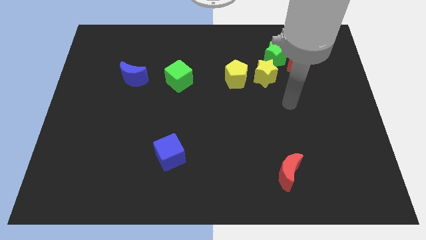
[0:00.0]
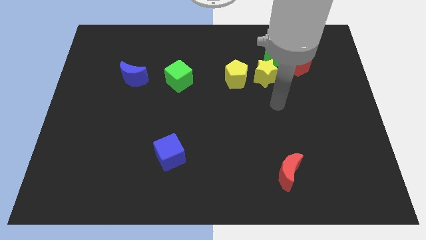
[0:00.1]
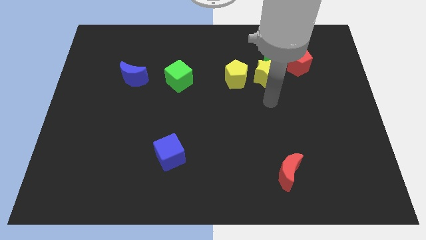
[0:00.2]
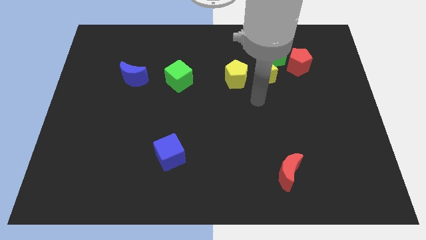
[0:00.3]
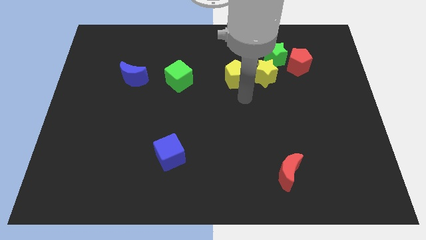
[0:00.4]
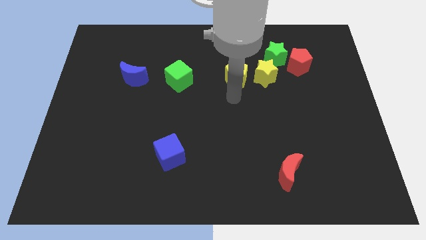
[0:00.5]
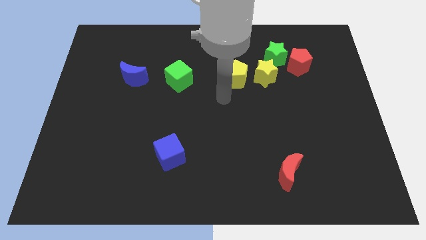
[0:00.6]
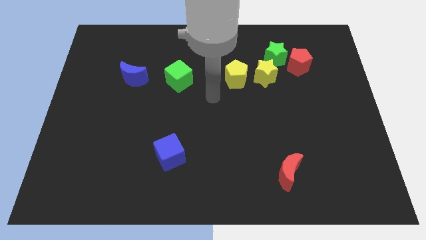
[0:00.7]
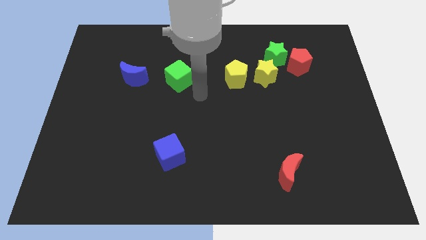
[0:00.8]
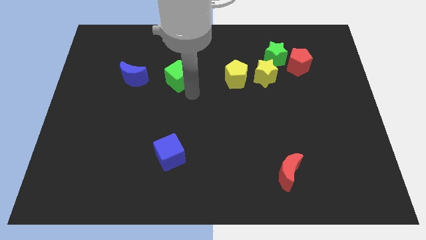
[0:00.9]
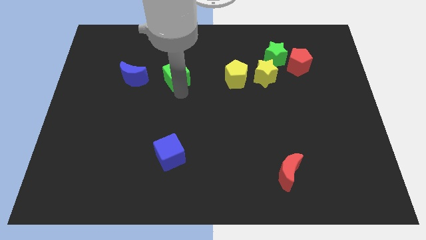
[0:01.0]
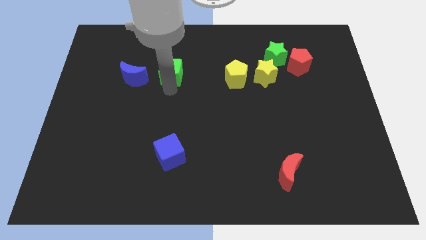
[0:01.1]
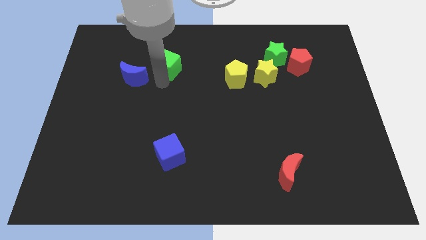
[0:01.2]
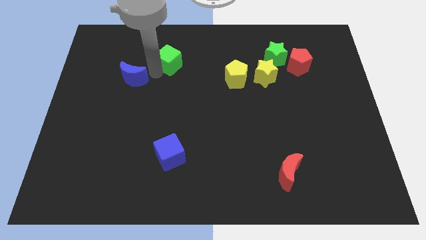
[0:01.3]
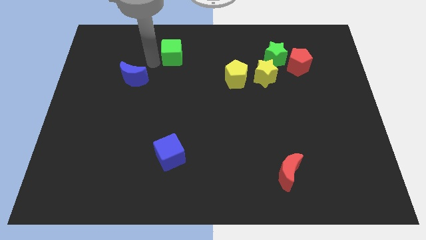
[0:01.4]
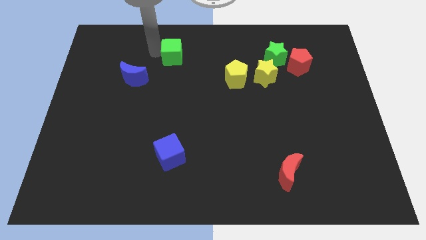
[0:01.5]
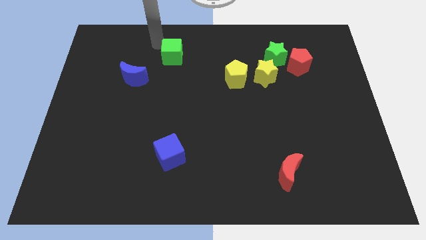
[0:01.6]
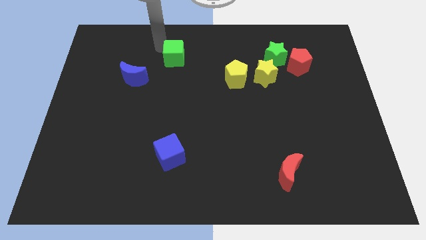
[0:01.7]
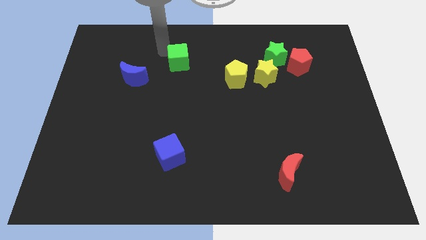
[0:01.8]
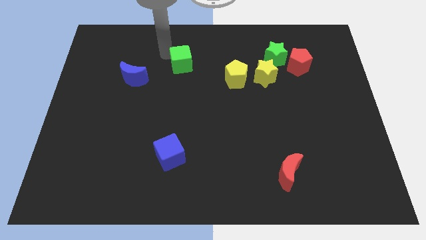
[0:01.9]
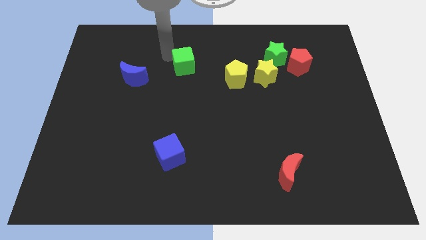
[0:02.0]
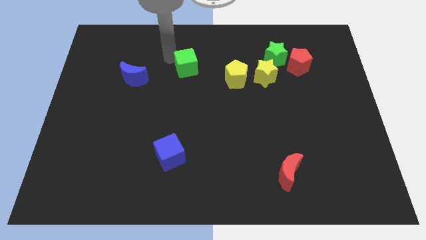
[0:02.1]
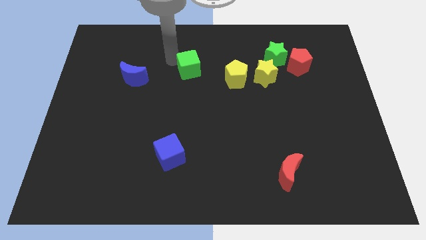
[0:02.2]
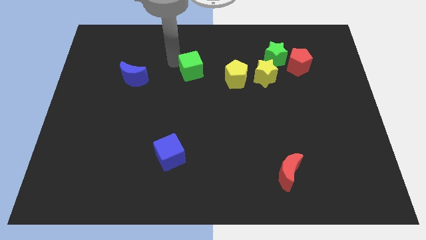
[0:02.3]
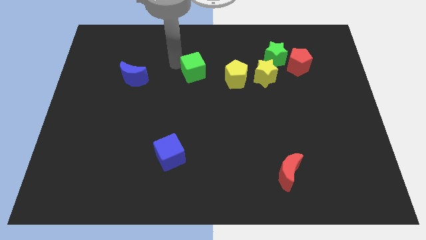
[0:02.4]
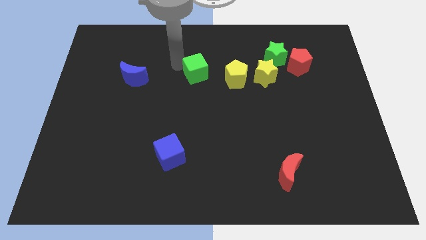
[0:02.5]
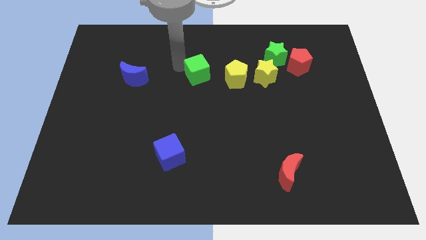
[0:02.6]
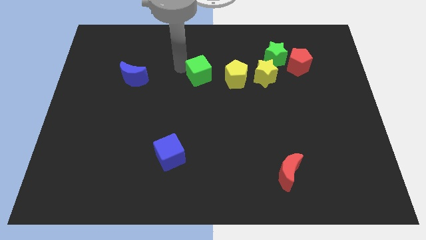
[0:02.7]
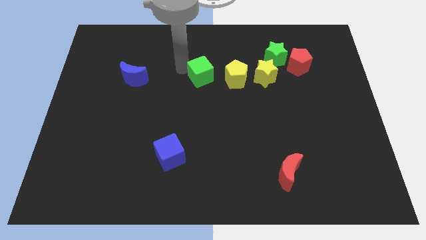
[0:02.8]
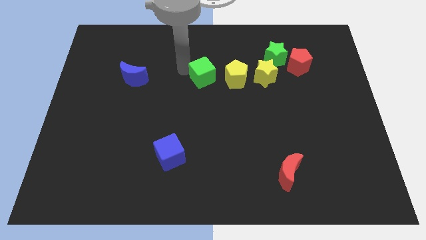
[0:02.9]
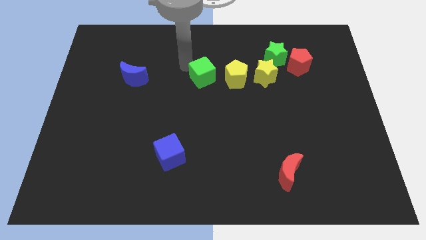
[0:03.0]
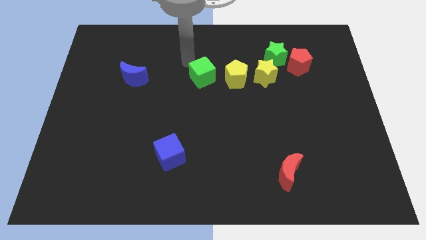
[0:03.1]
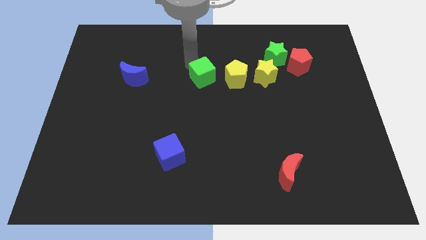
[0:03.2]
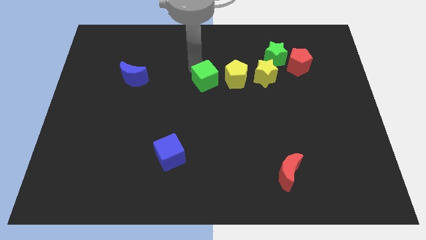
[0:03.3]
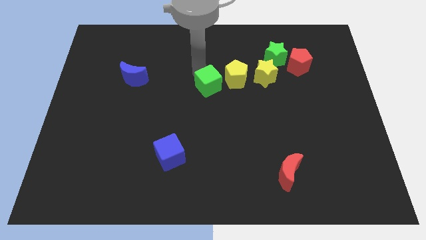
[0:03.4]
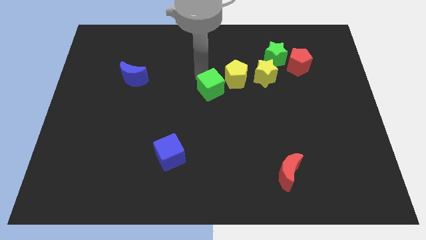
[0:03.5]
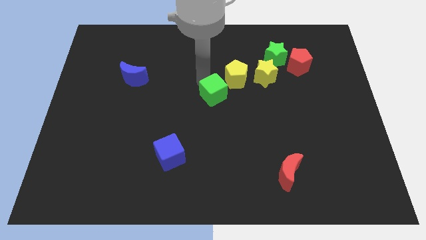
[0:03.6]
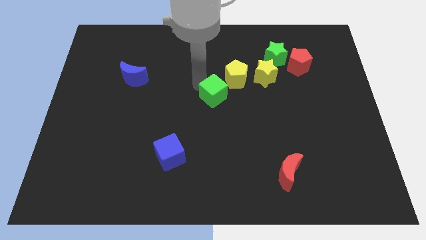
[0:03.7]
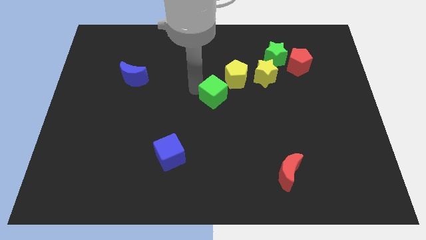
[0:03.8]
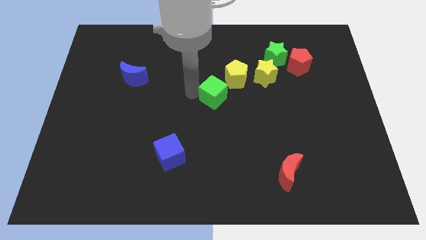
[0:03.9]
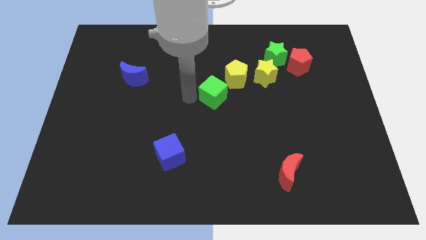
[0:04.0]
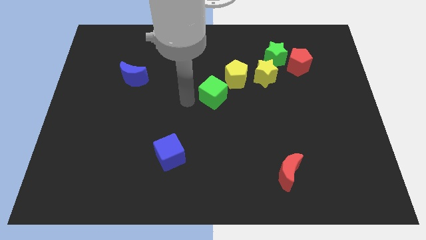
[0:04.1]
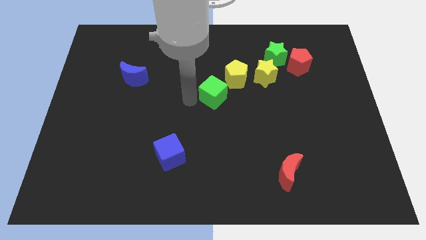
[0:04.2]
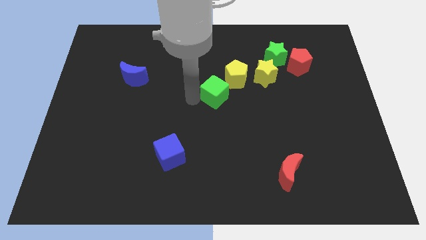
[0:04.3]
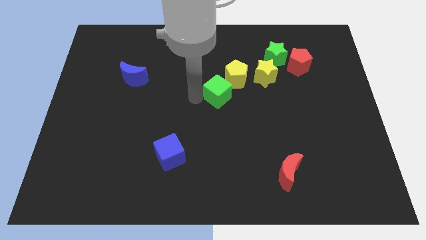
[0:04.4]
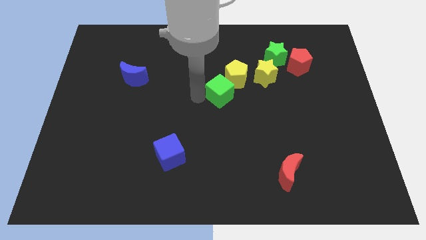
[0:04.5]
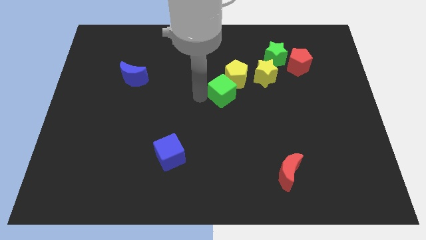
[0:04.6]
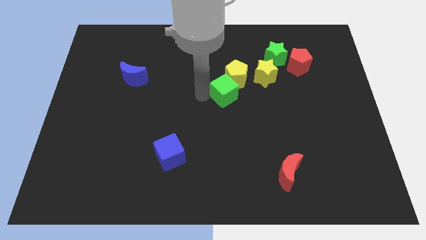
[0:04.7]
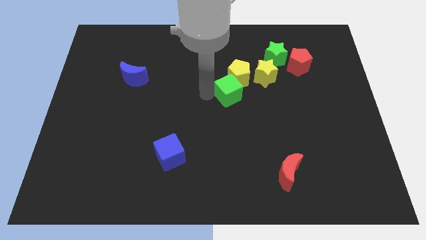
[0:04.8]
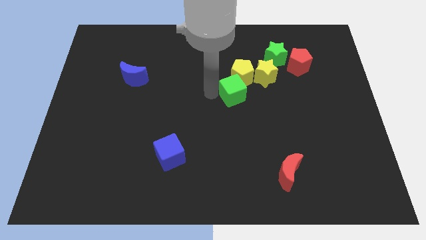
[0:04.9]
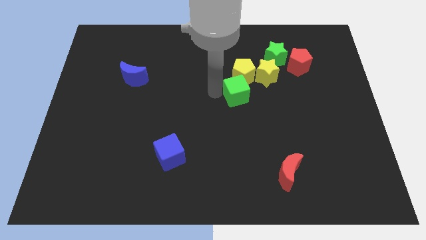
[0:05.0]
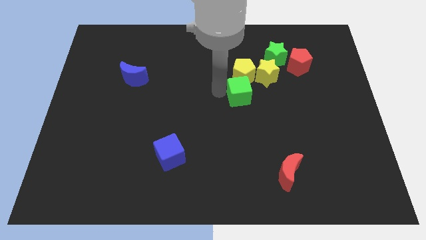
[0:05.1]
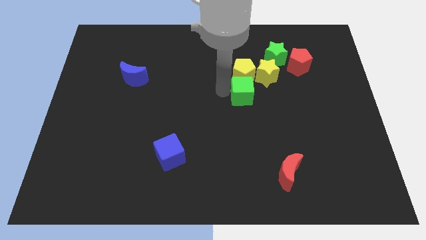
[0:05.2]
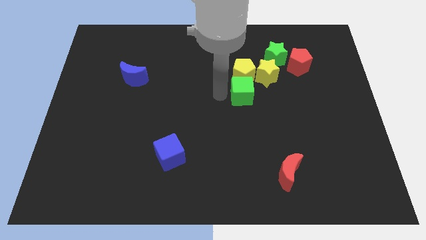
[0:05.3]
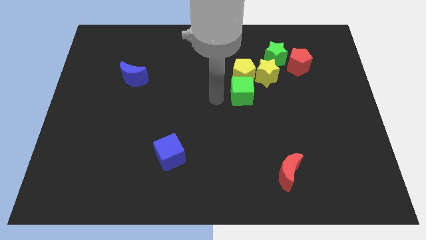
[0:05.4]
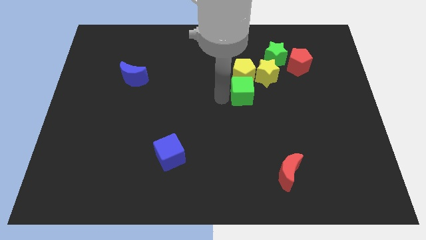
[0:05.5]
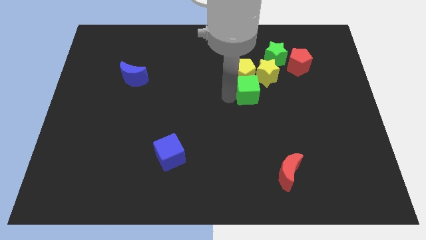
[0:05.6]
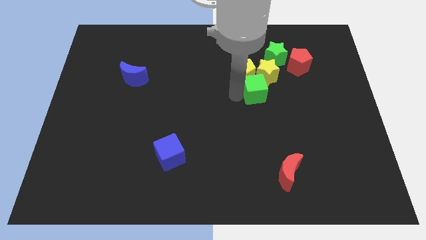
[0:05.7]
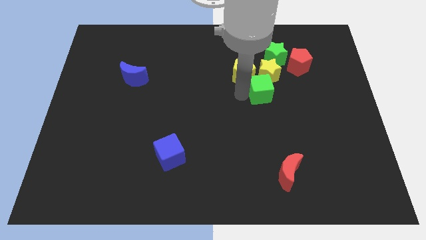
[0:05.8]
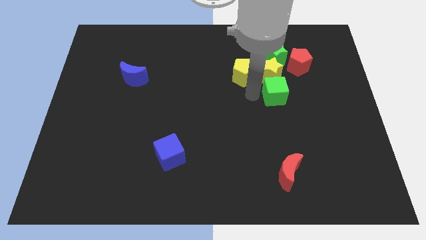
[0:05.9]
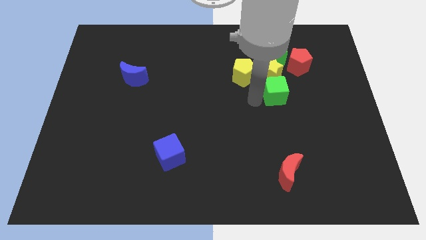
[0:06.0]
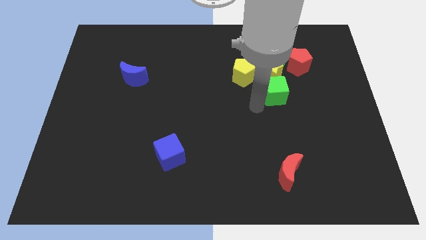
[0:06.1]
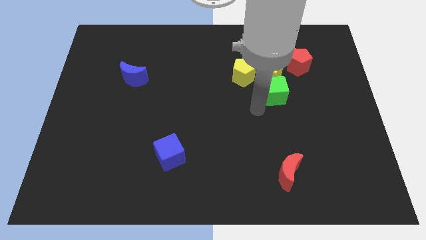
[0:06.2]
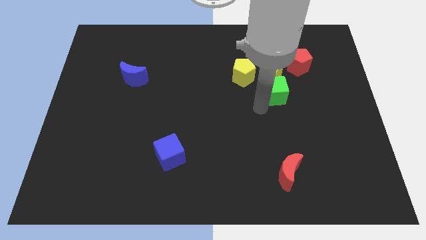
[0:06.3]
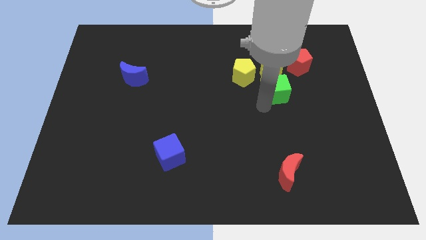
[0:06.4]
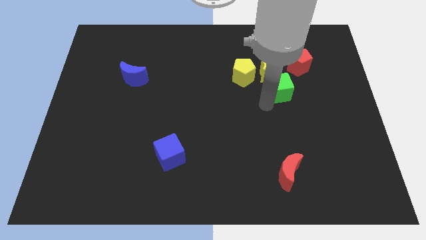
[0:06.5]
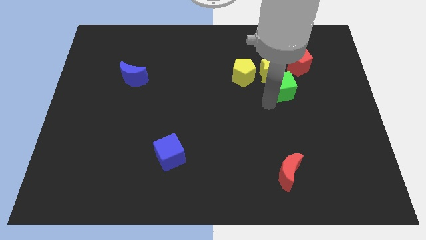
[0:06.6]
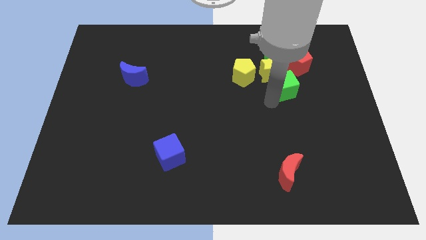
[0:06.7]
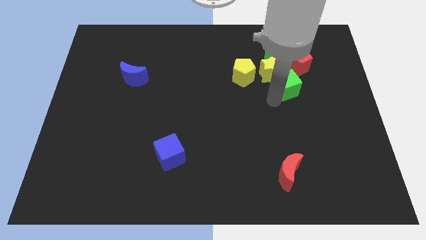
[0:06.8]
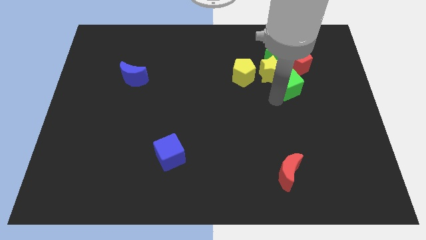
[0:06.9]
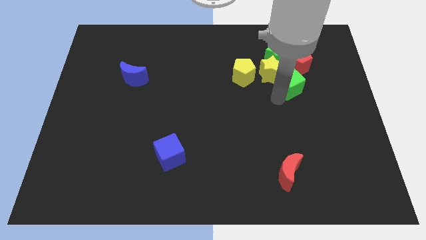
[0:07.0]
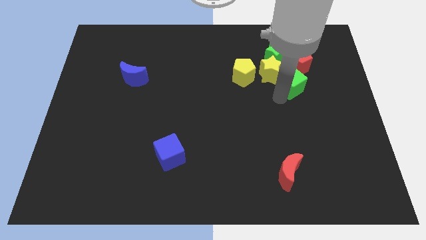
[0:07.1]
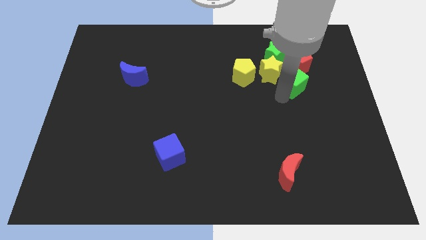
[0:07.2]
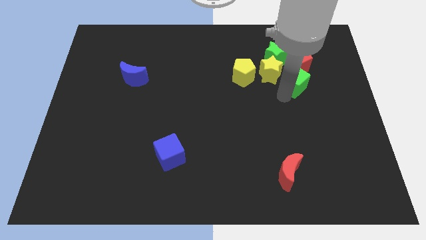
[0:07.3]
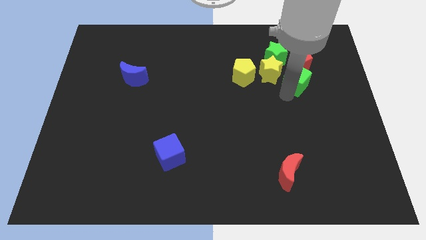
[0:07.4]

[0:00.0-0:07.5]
slide the green cube close to the red pentagon
